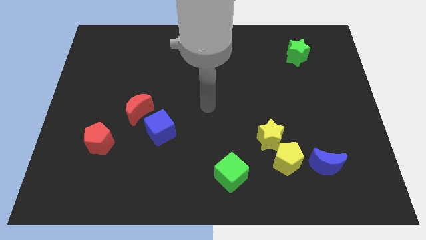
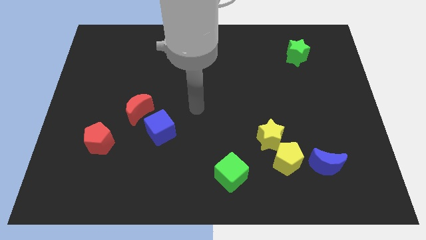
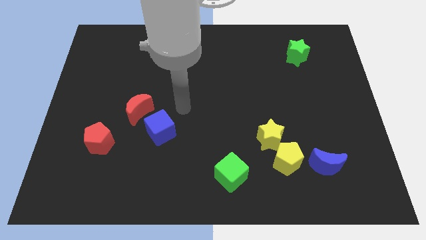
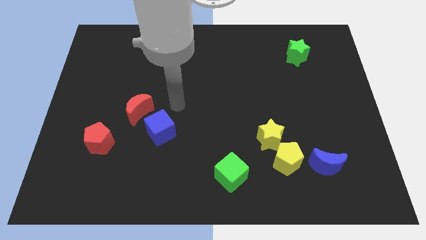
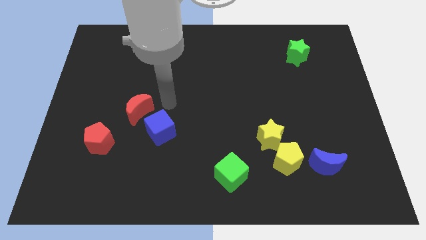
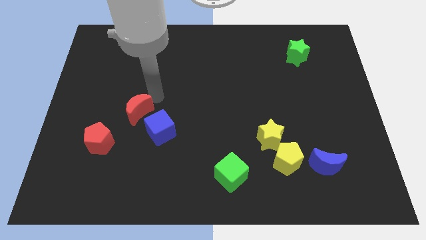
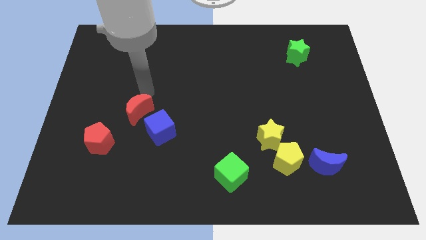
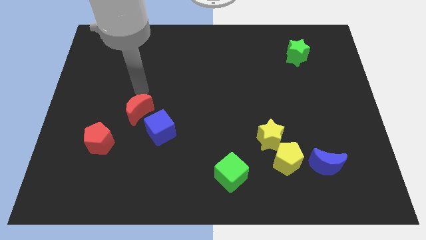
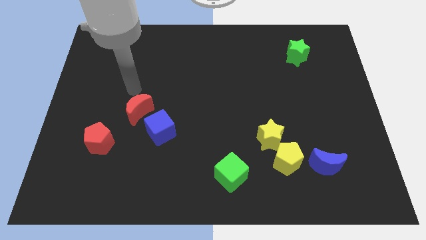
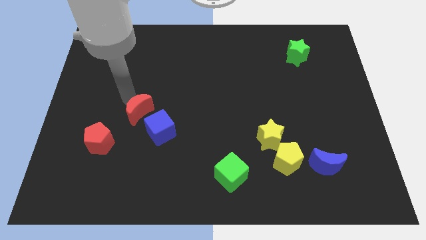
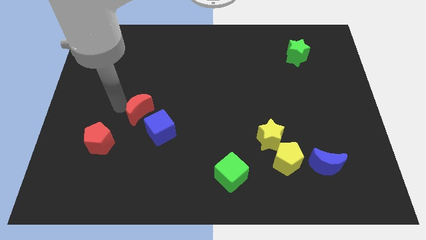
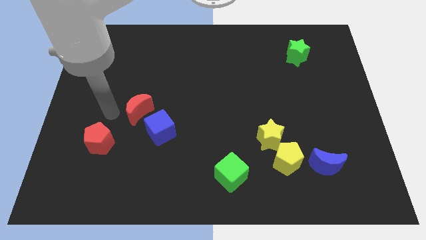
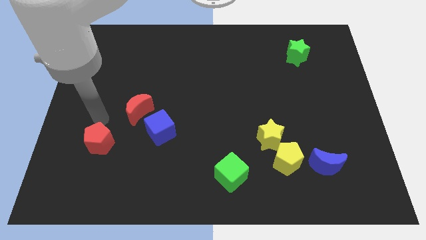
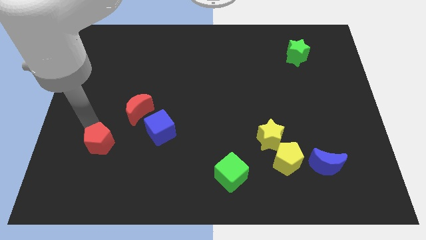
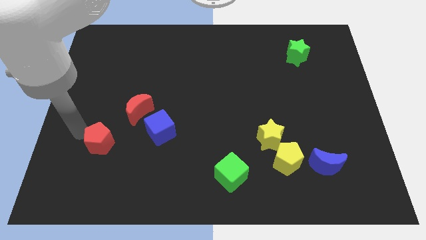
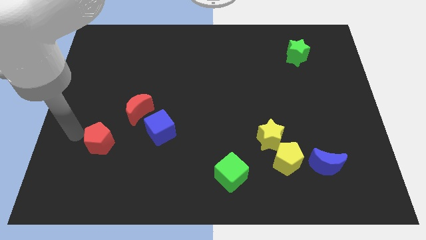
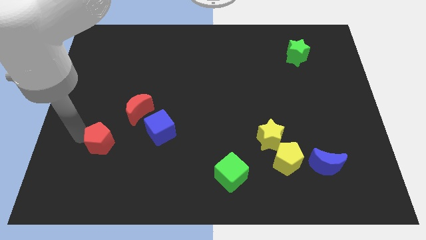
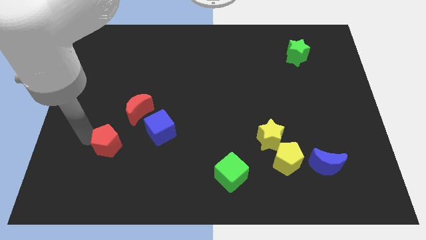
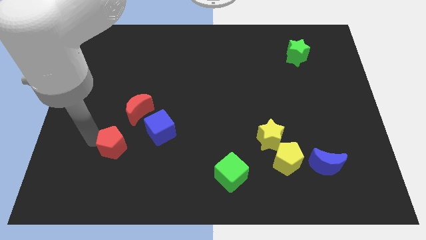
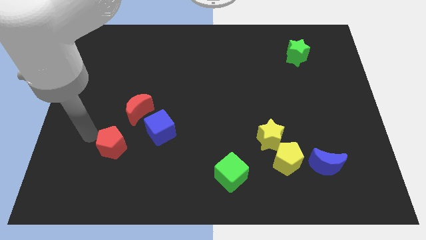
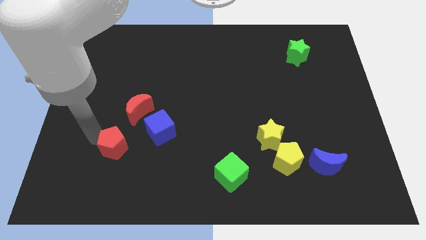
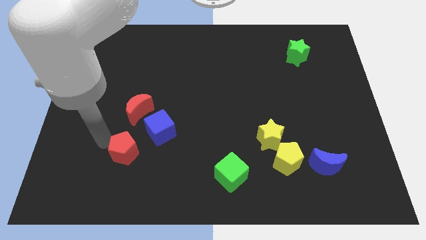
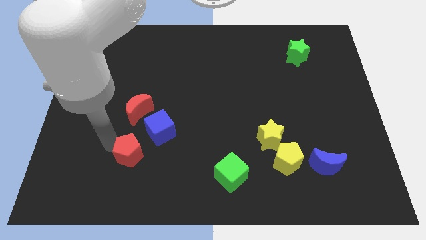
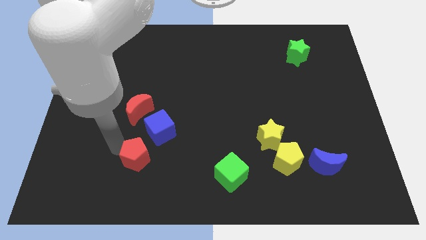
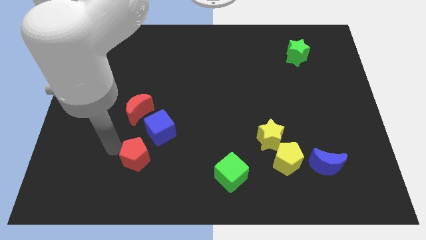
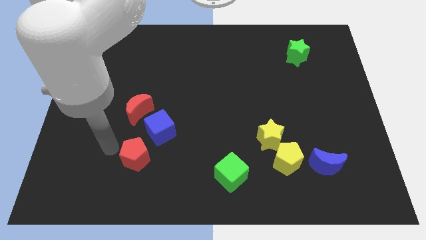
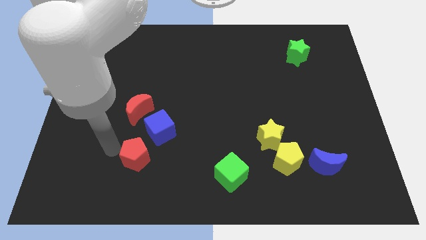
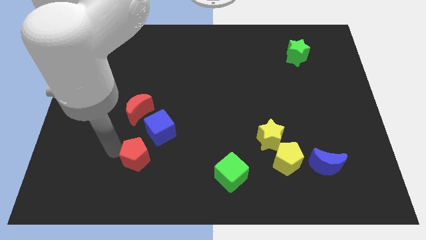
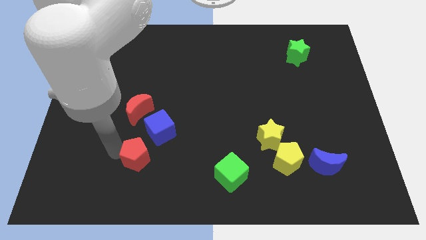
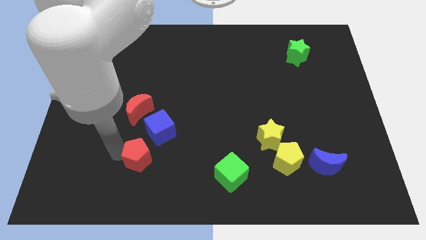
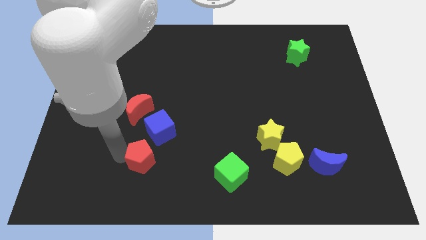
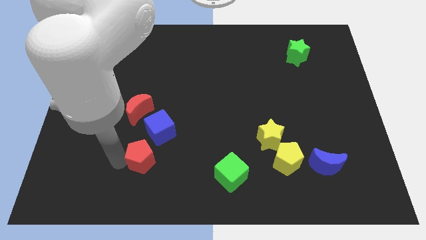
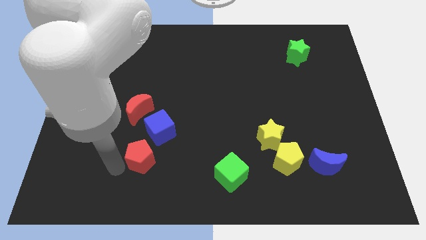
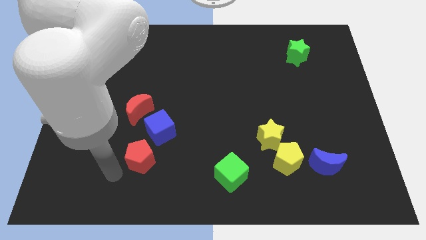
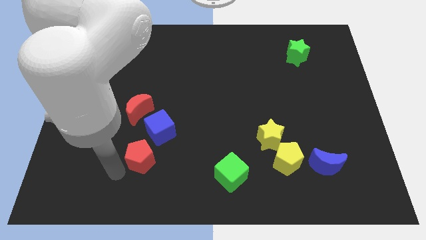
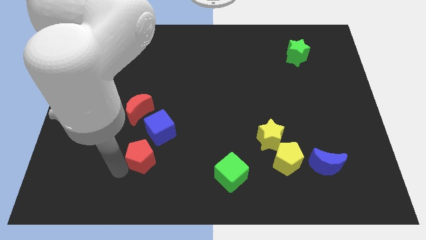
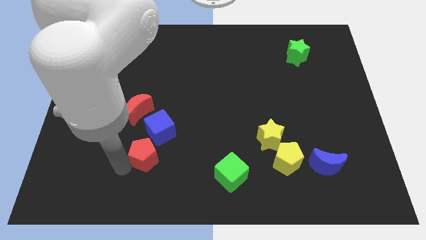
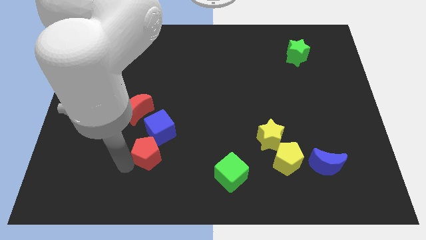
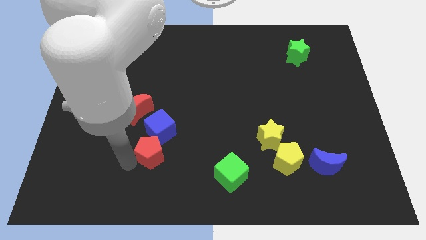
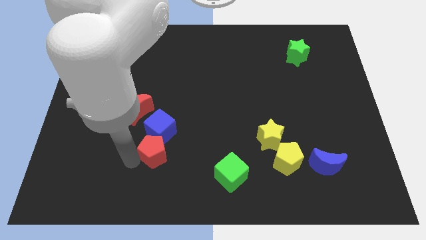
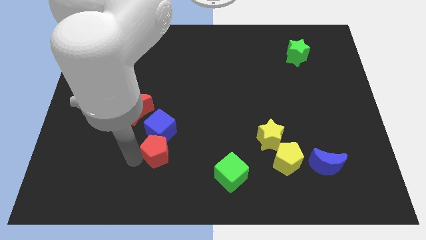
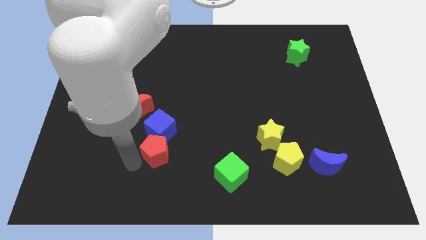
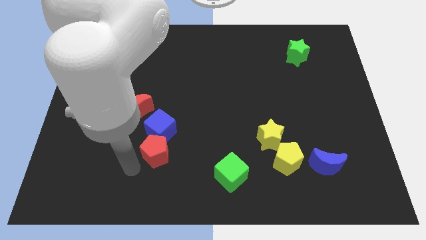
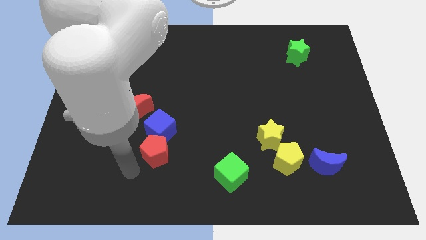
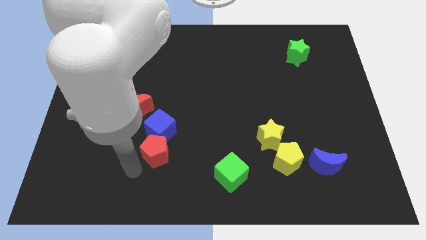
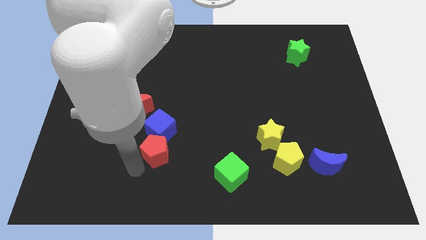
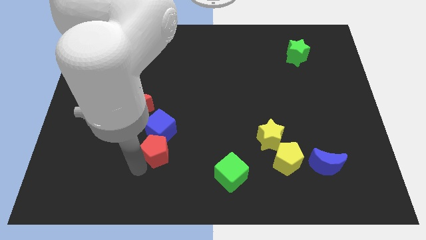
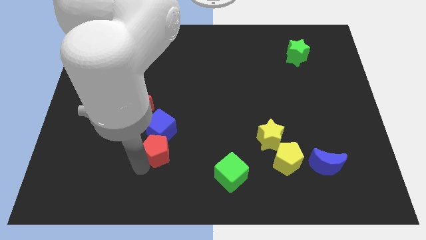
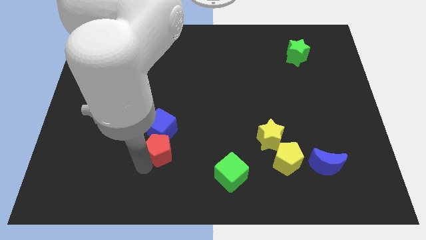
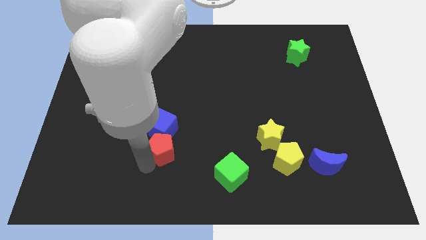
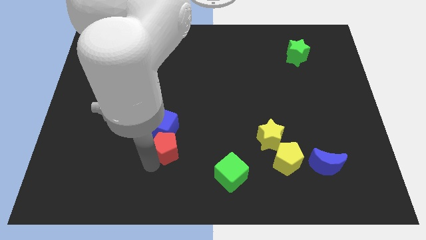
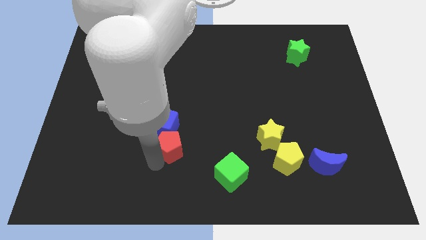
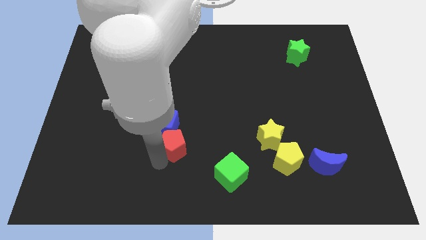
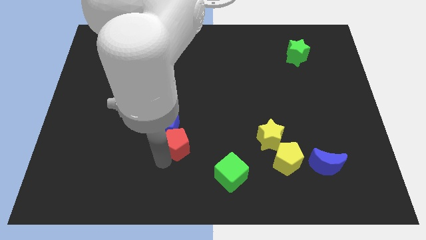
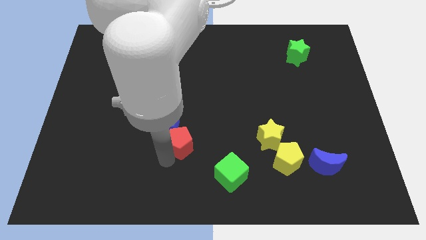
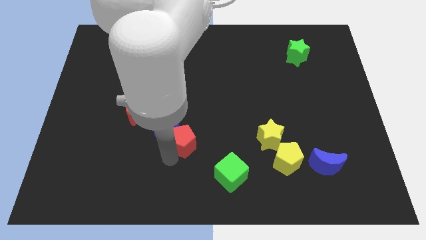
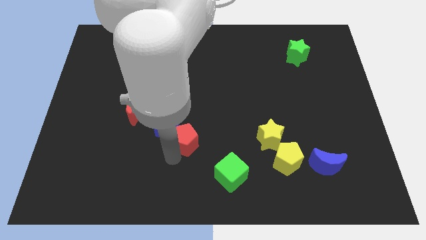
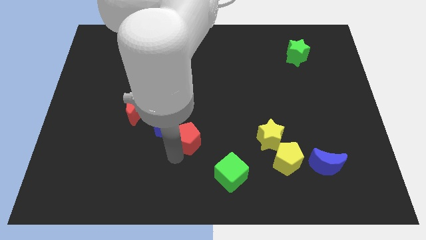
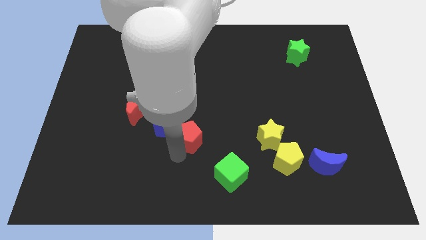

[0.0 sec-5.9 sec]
slide the red pentagon to the middle of the board

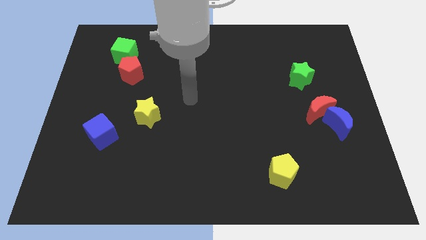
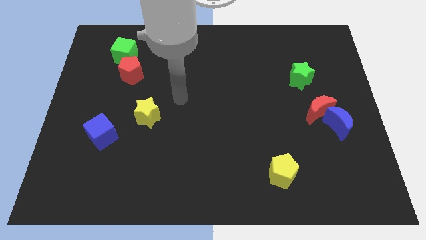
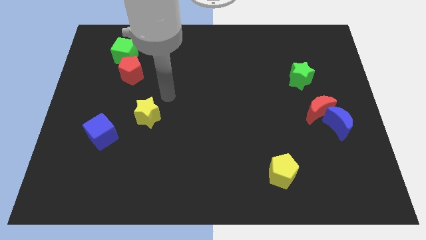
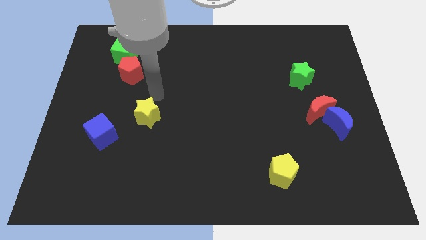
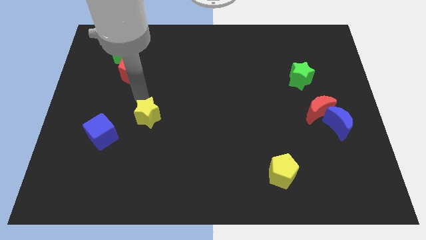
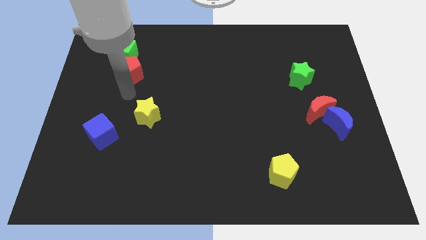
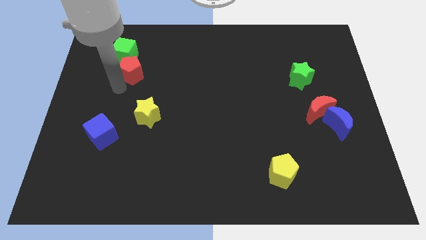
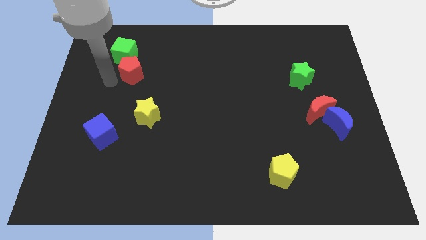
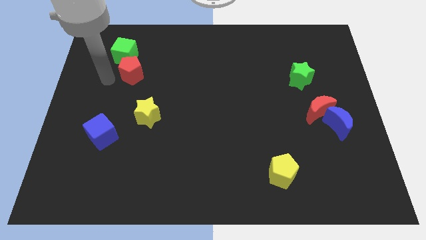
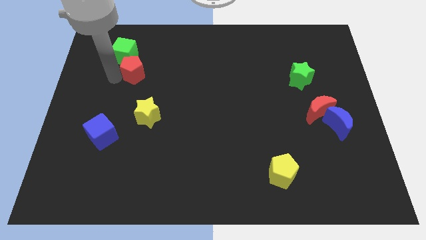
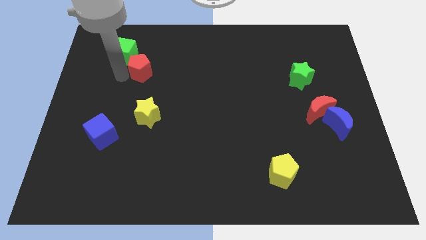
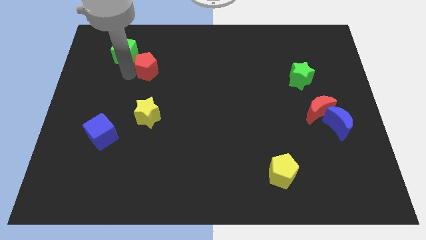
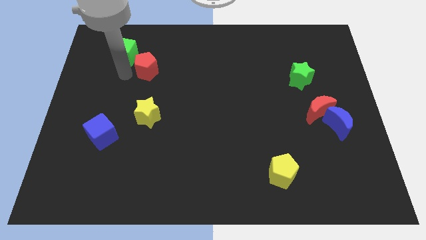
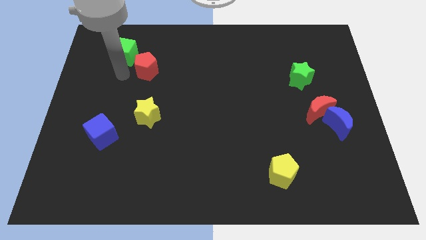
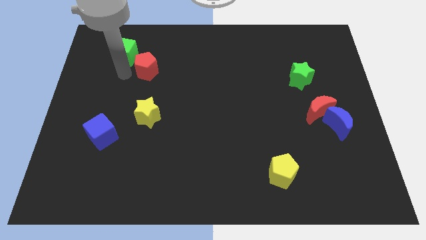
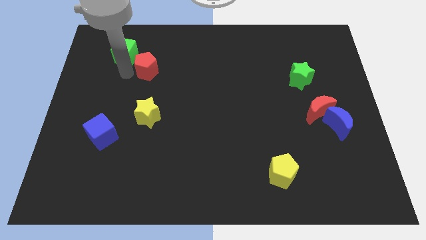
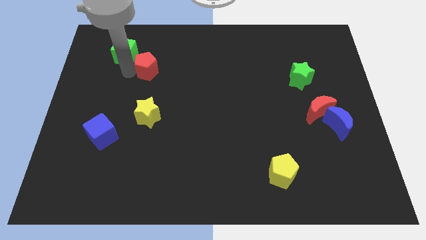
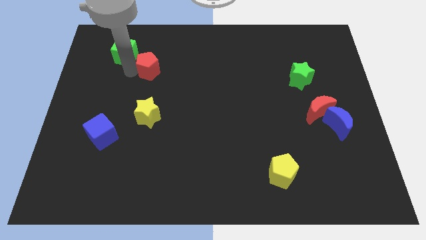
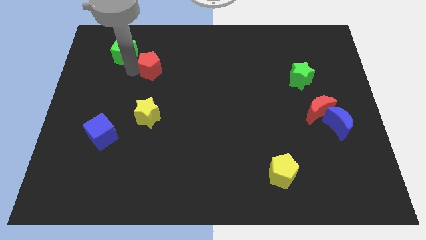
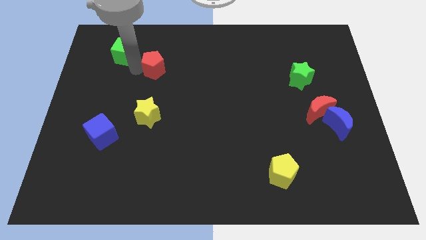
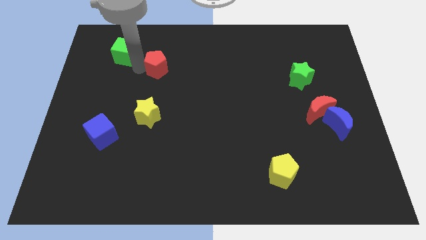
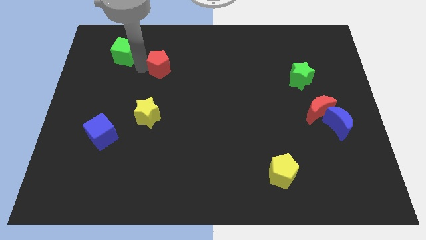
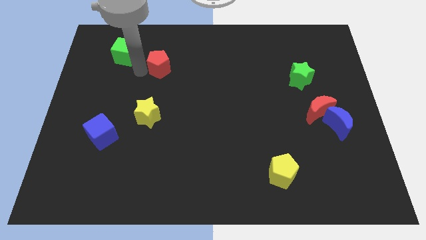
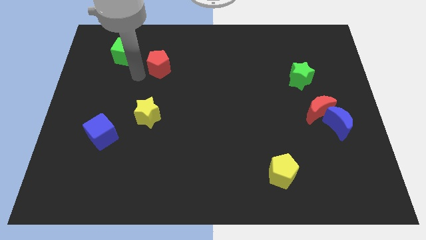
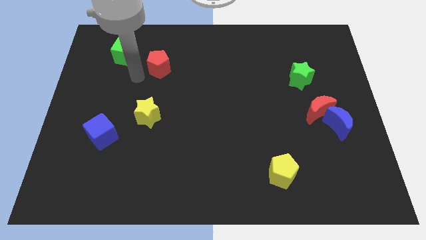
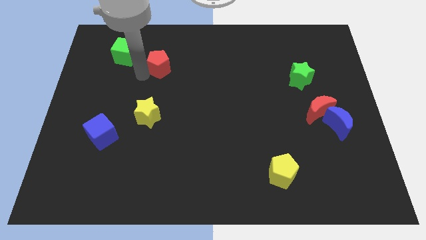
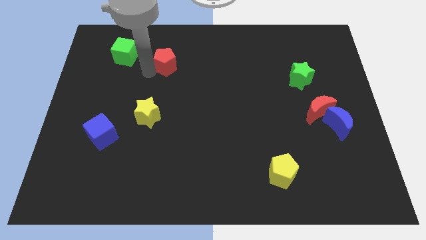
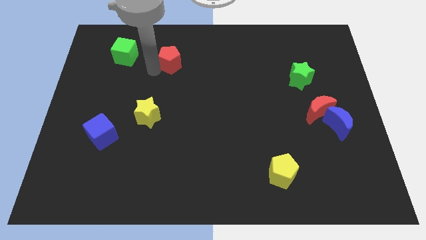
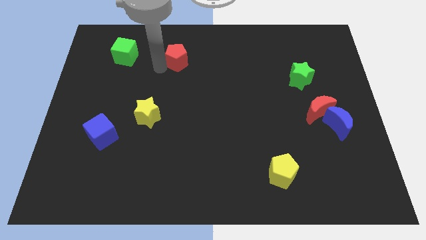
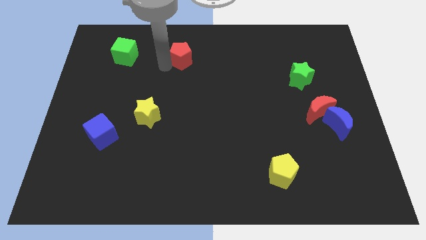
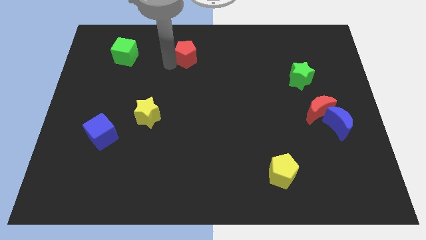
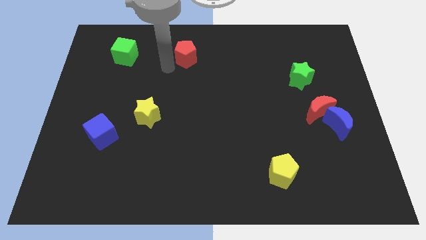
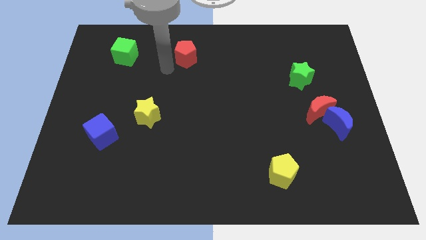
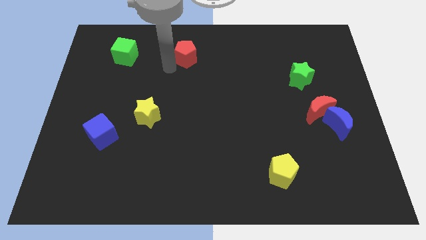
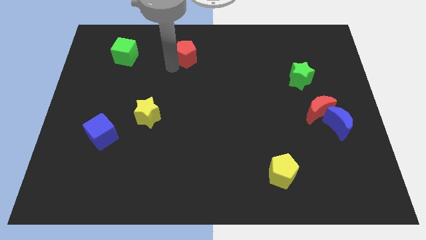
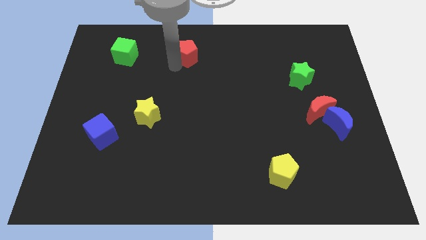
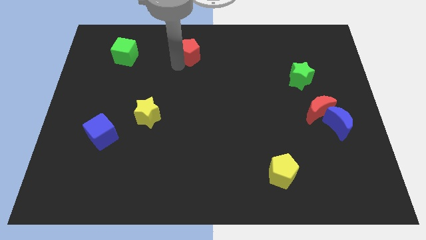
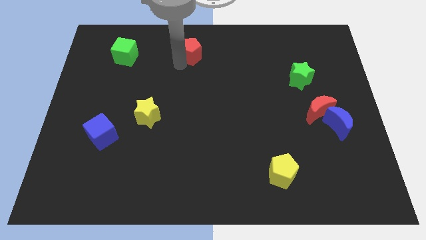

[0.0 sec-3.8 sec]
push the red pentagon to the top side
